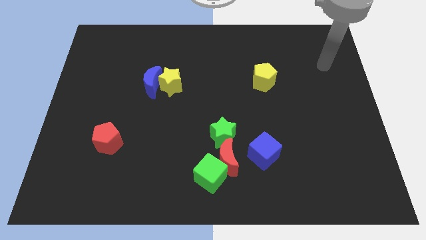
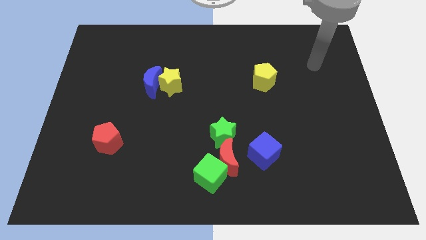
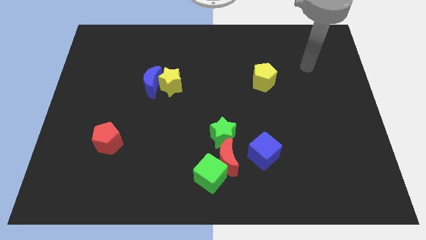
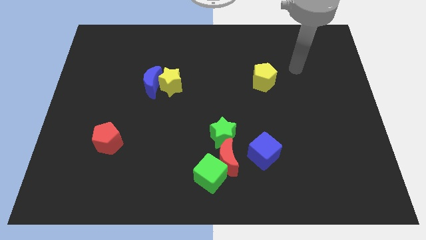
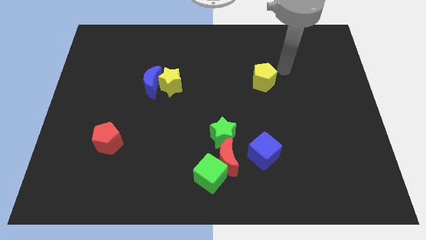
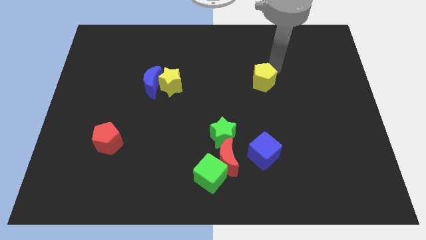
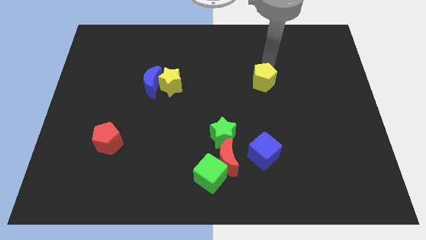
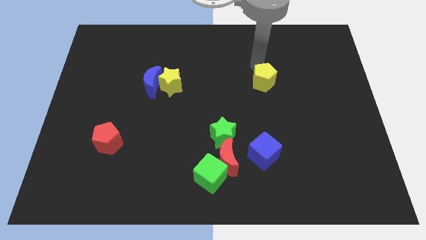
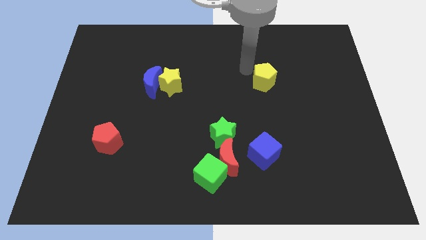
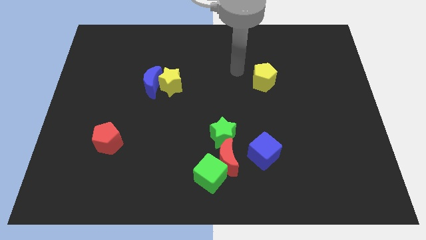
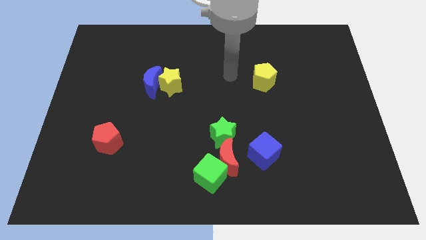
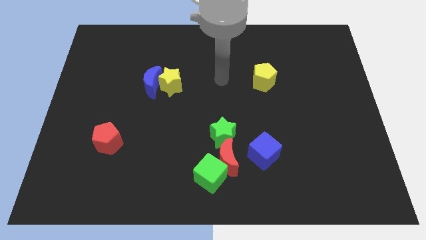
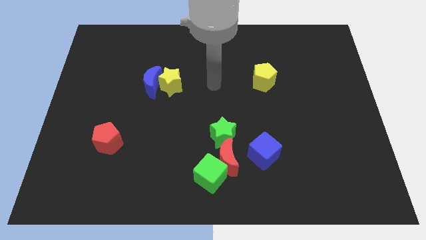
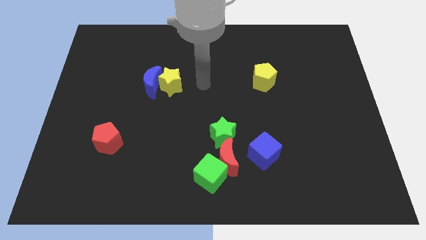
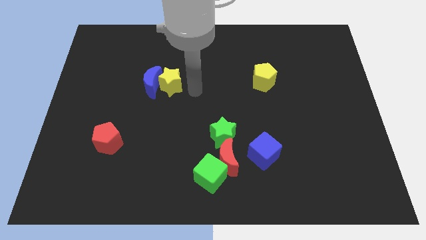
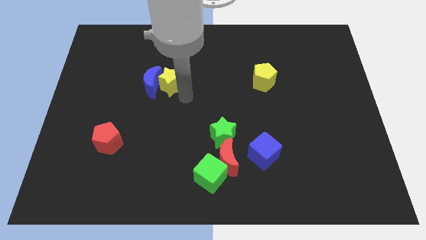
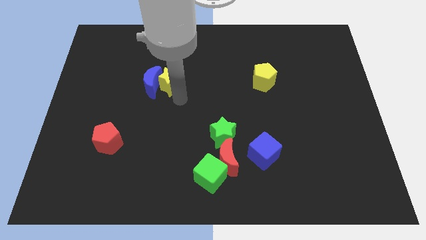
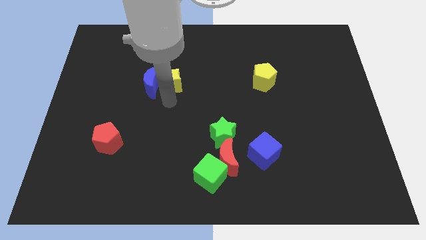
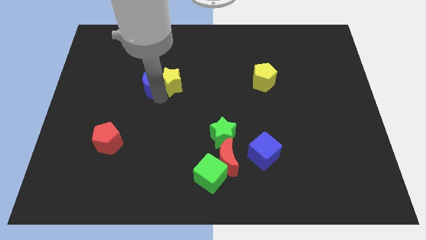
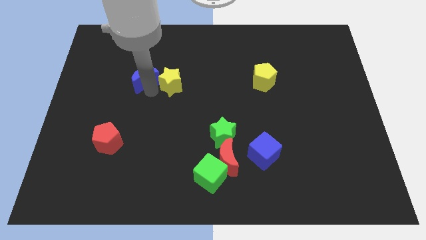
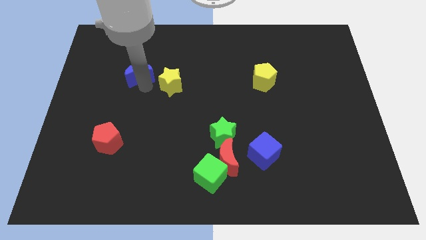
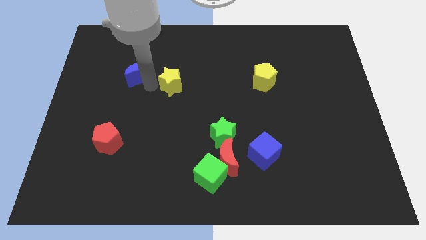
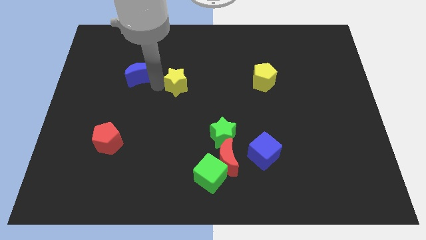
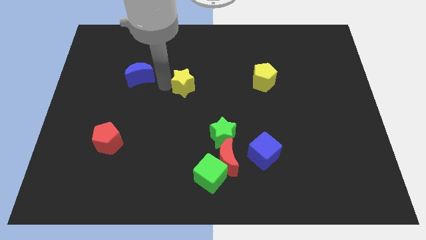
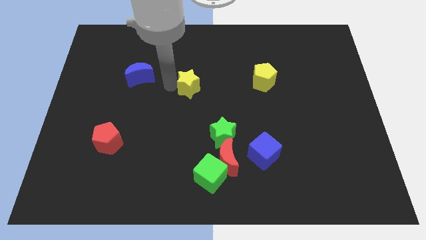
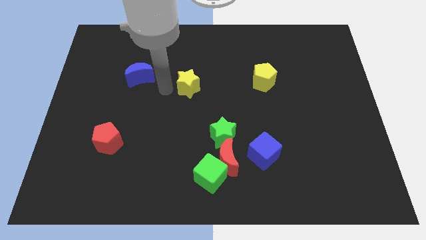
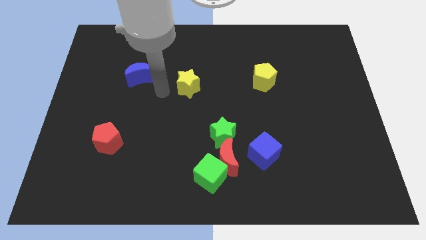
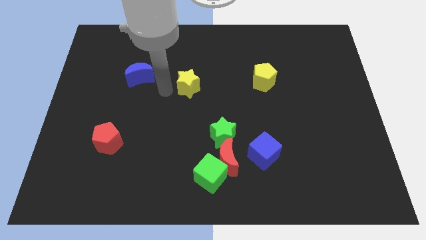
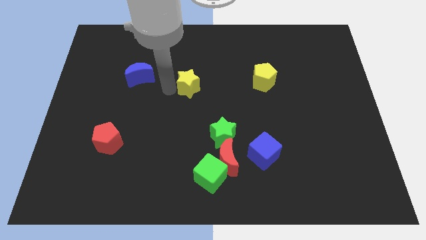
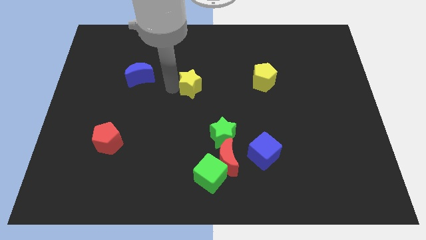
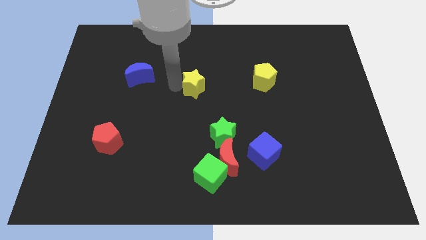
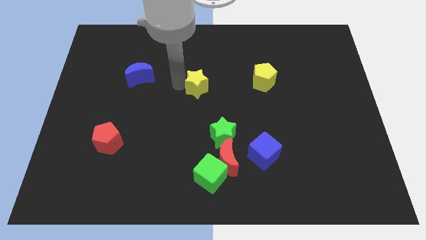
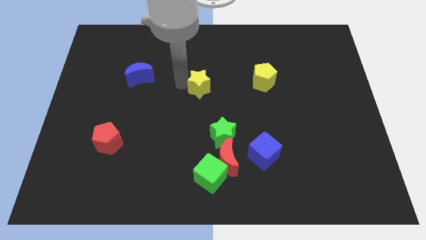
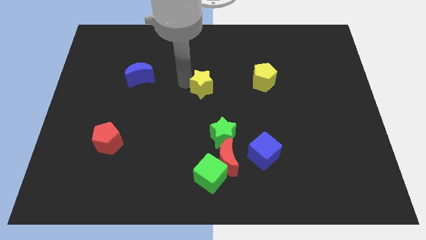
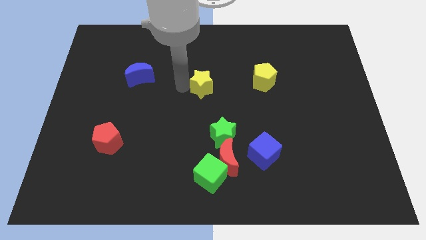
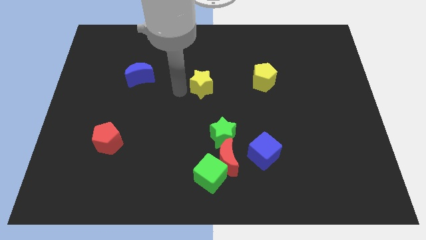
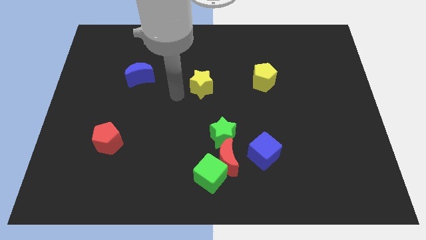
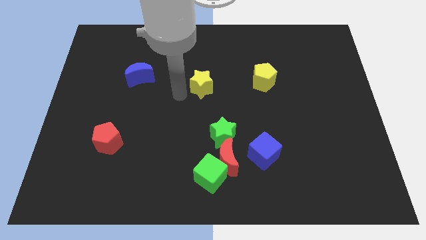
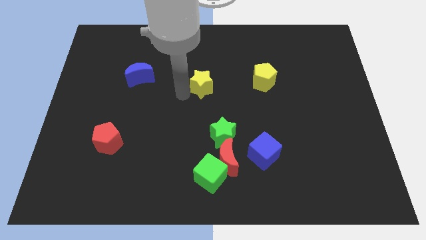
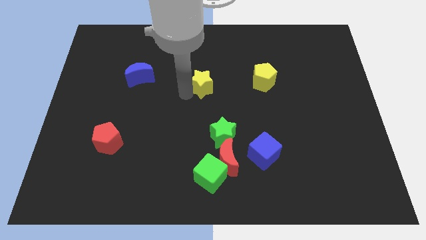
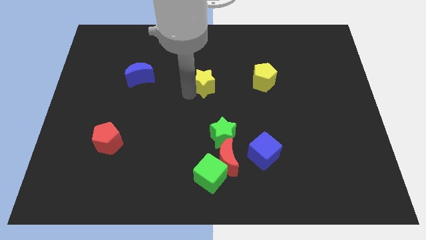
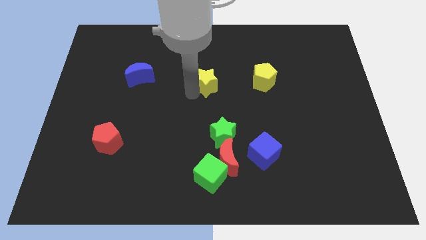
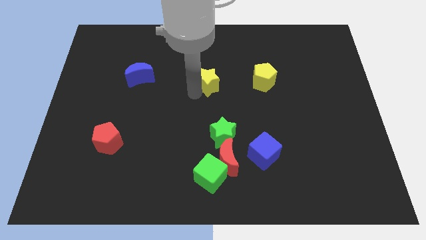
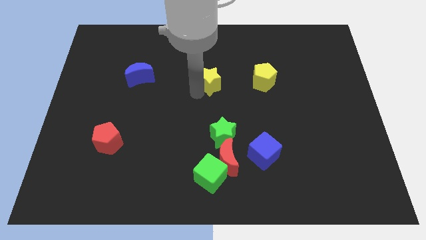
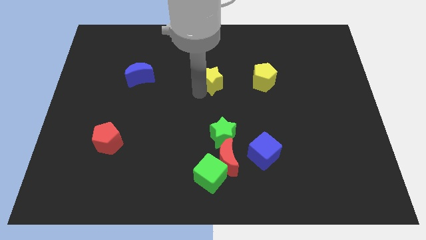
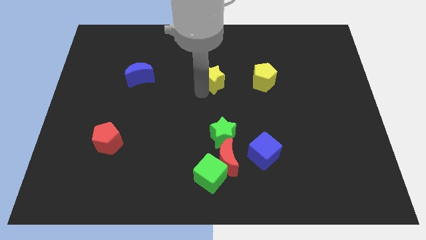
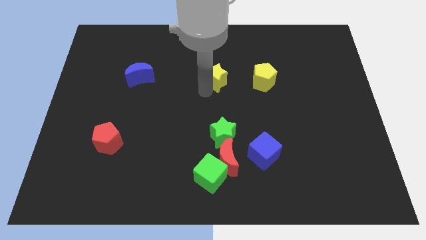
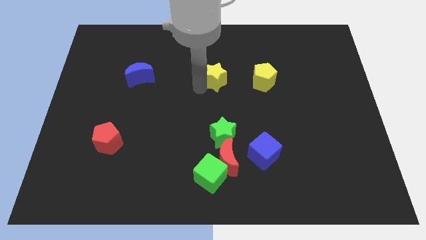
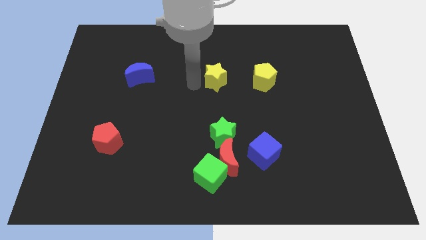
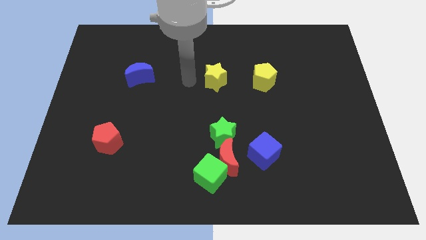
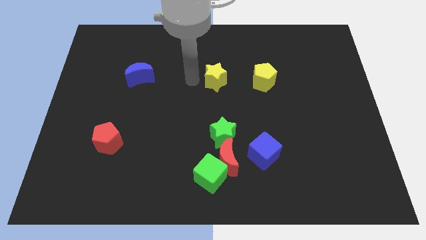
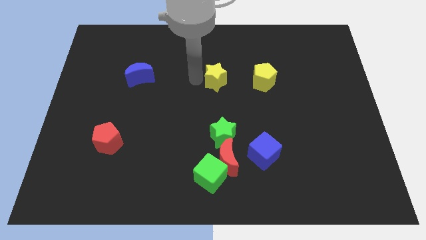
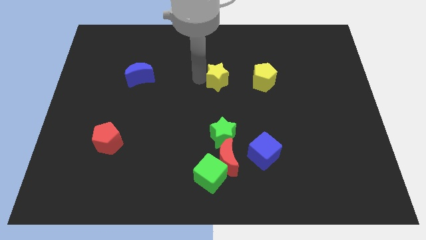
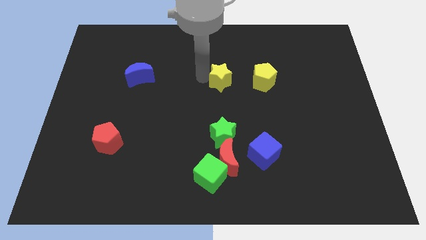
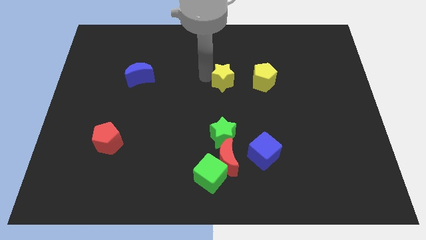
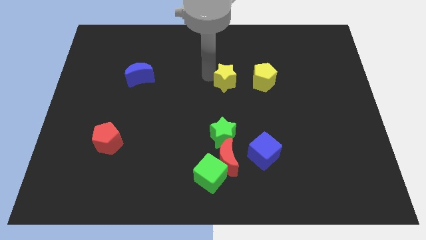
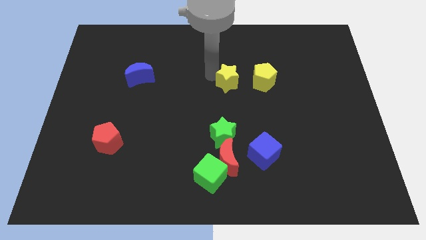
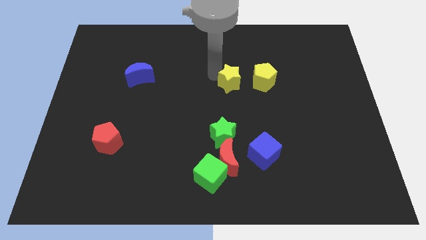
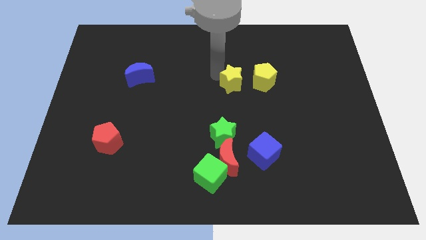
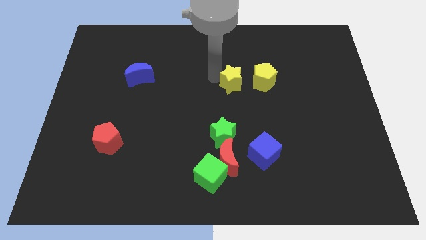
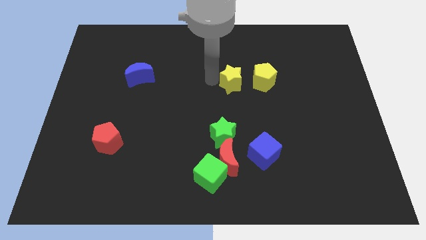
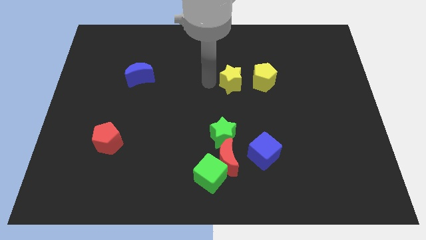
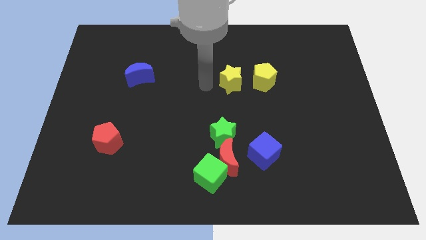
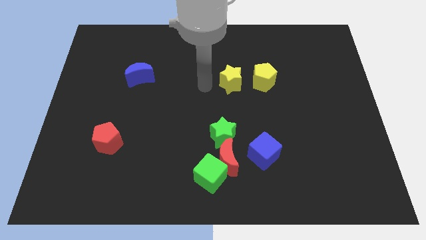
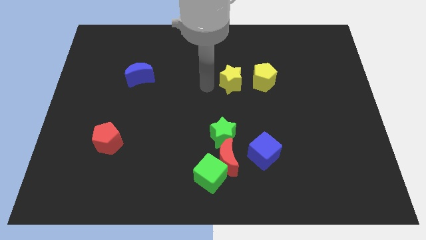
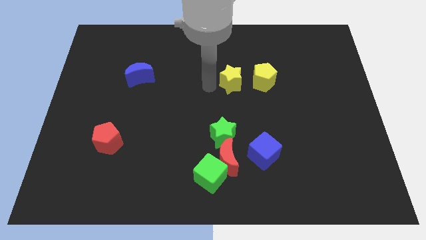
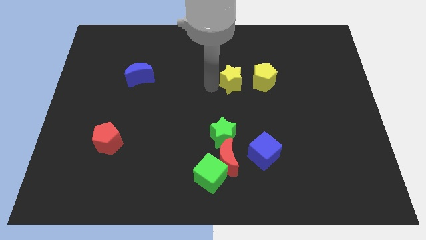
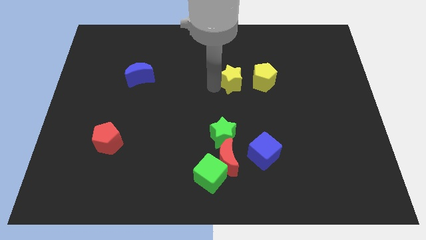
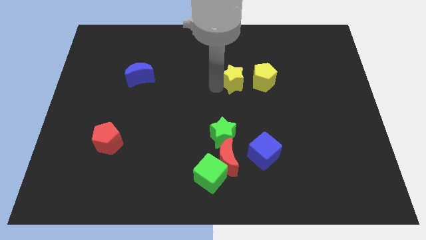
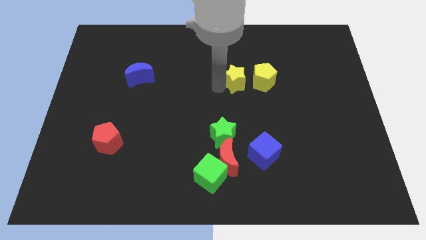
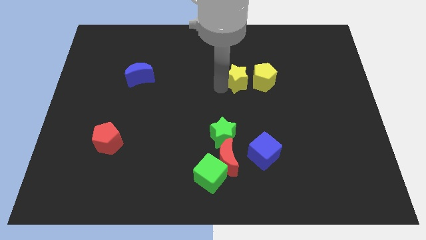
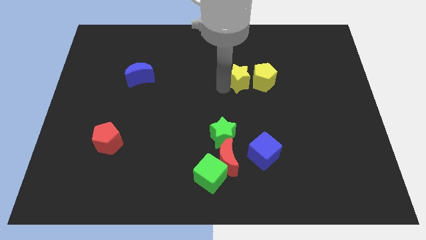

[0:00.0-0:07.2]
put the yellow star close to the yellow pentagon

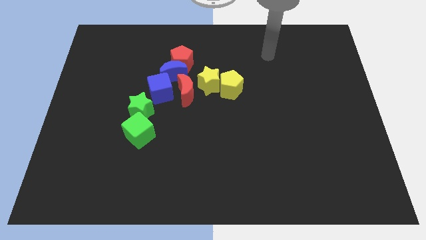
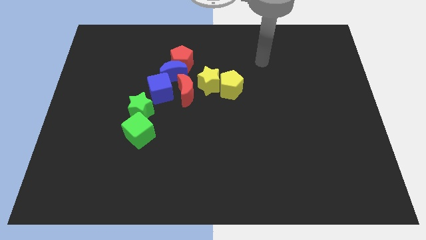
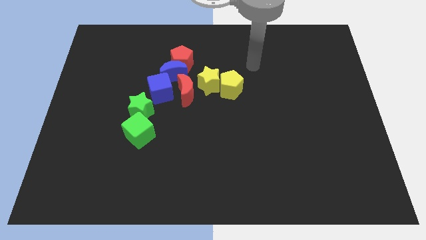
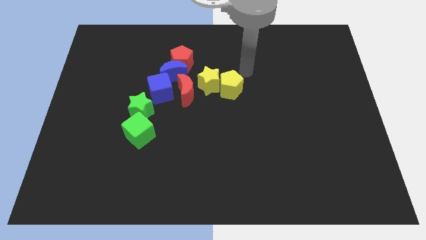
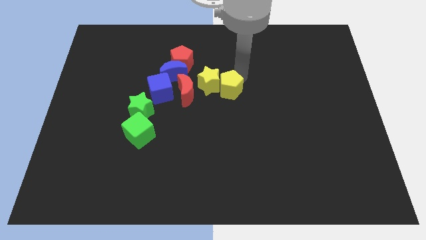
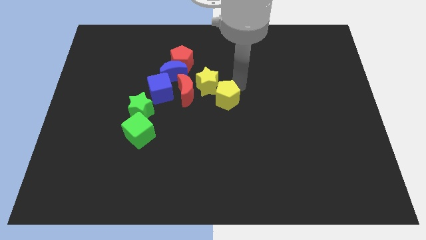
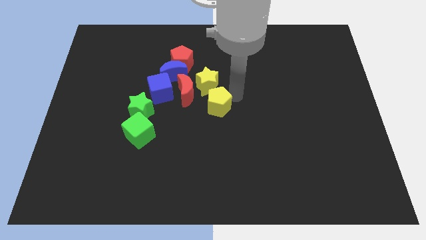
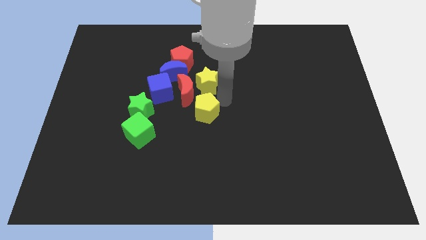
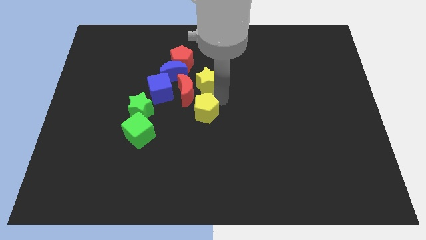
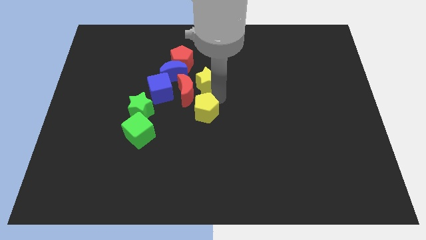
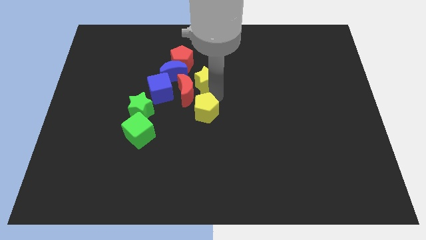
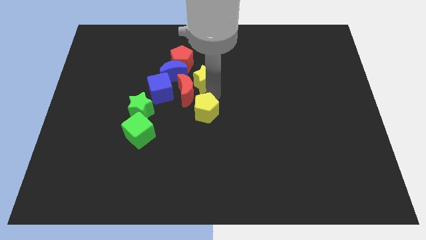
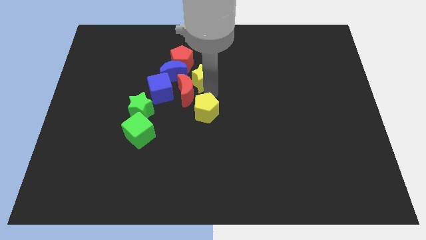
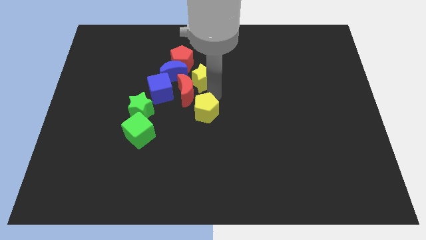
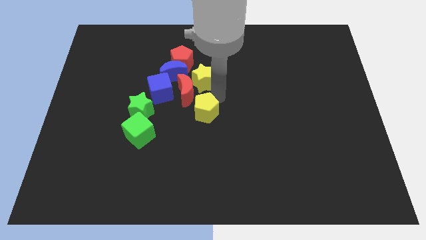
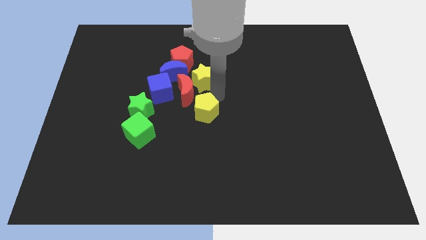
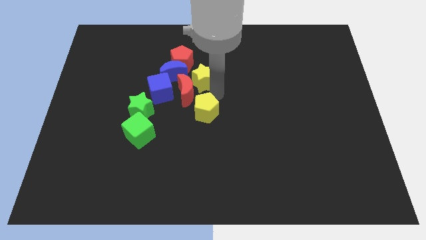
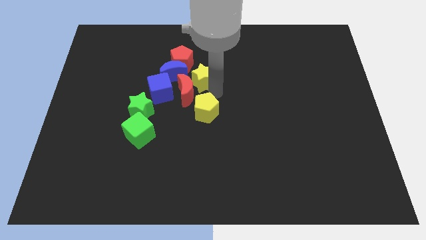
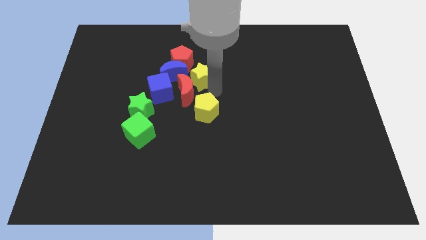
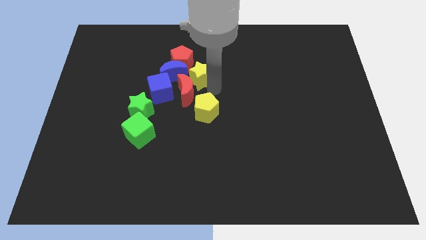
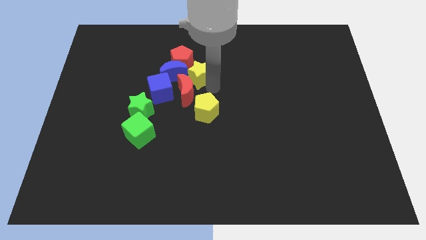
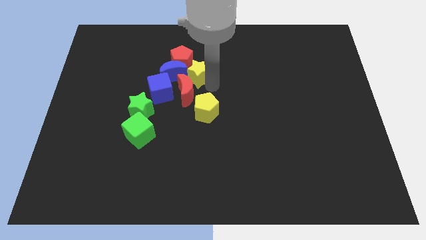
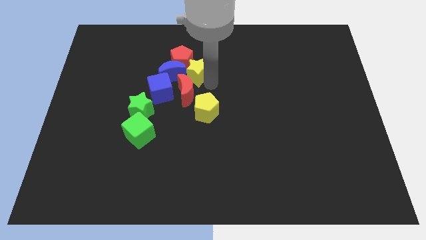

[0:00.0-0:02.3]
push the yellow star next to the red pentagon
